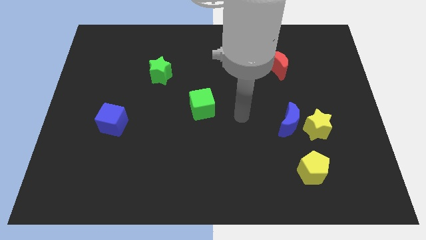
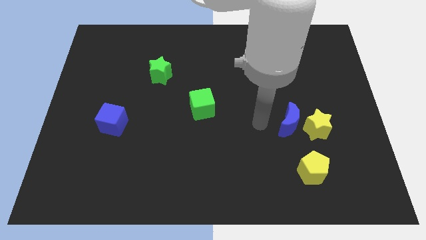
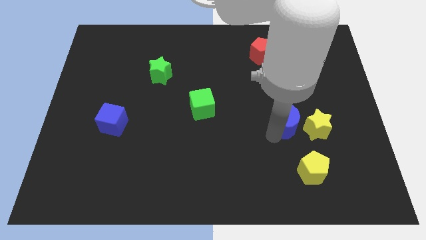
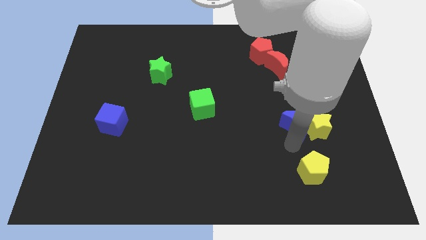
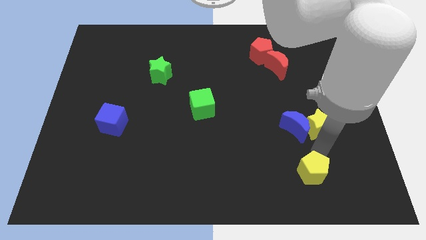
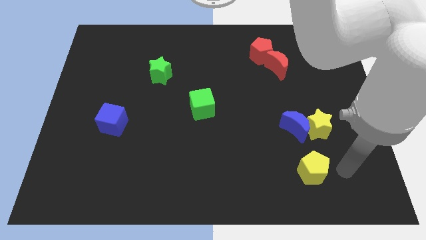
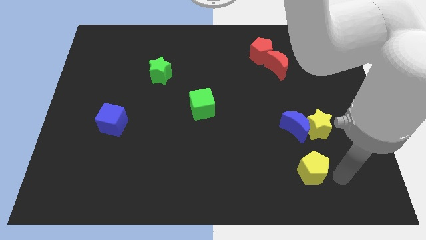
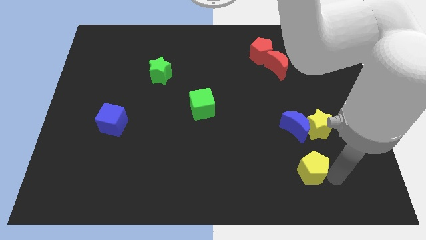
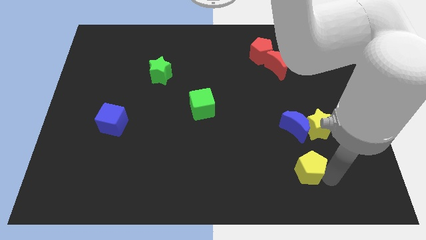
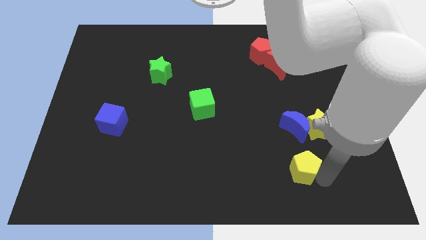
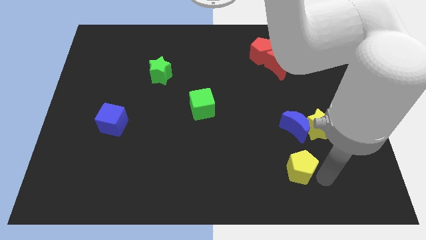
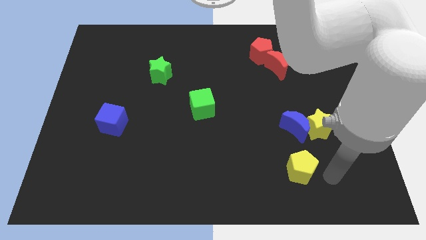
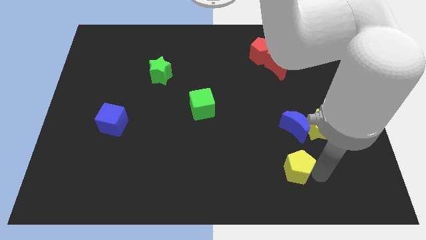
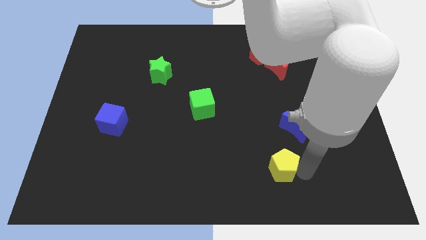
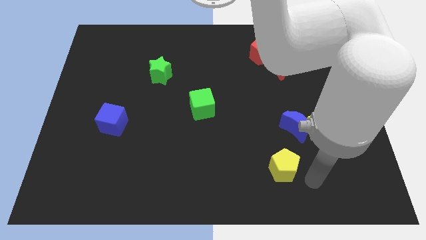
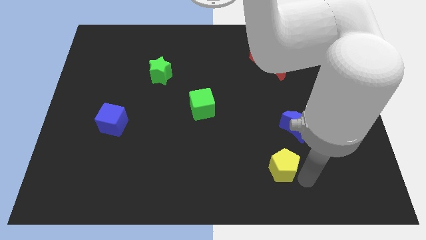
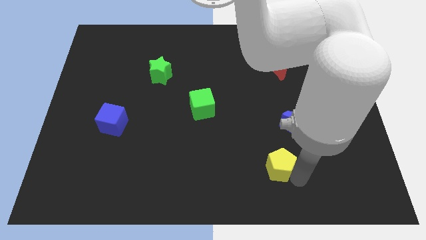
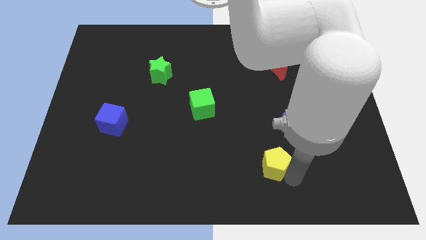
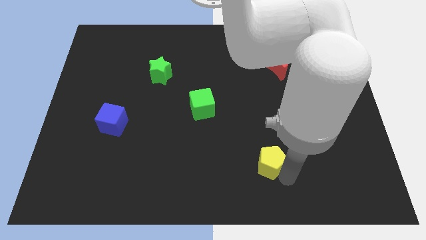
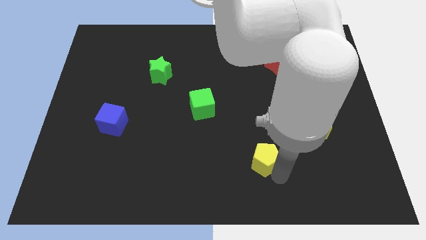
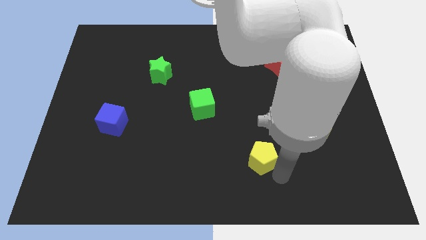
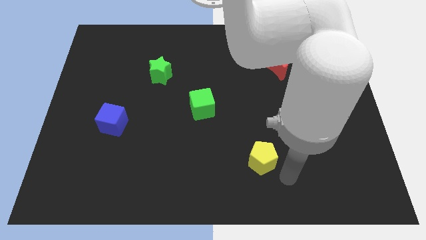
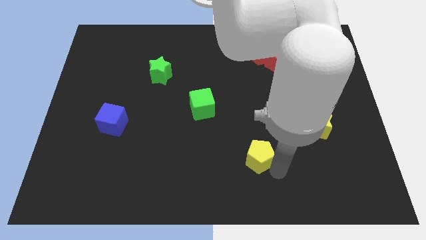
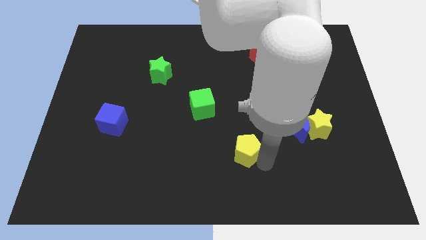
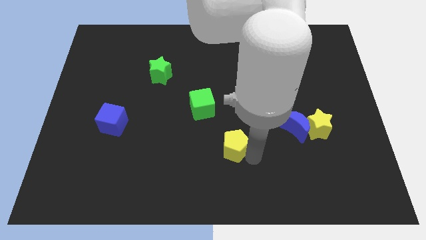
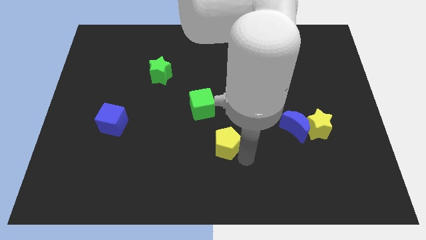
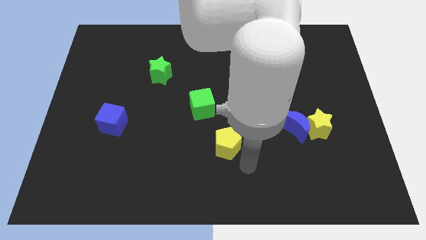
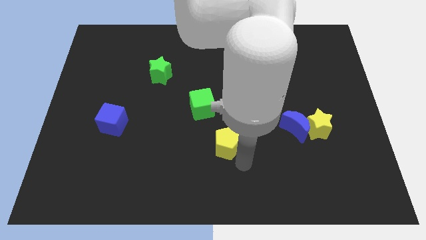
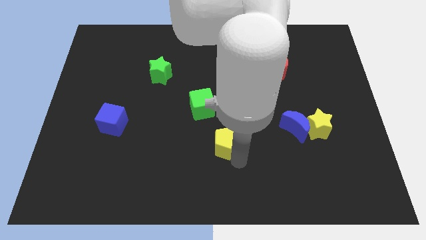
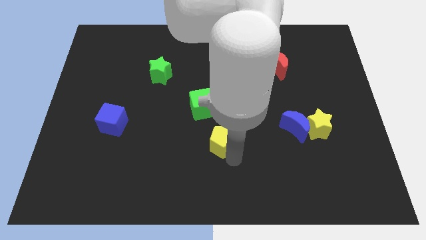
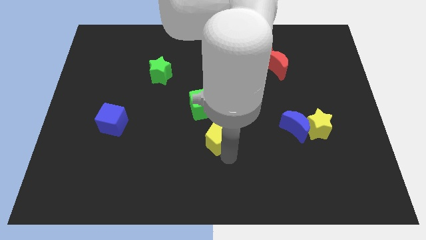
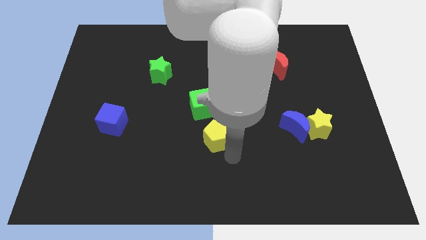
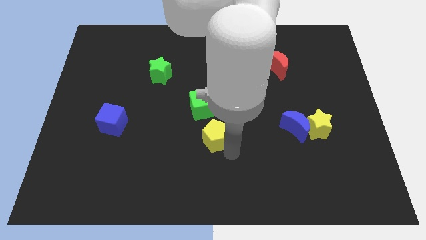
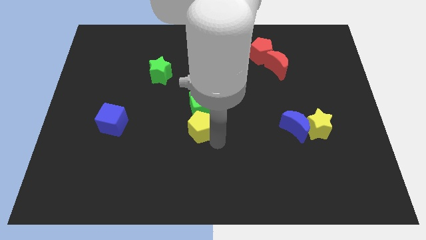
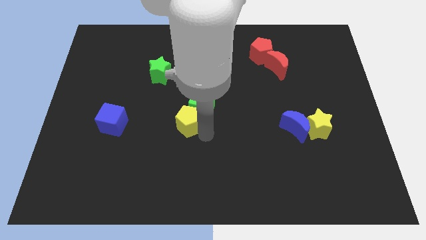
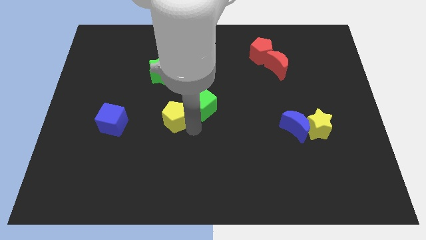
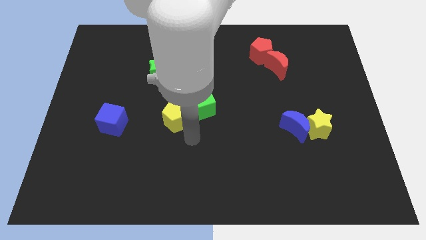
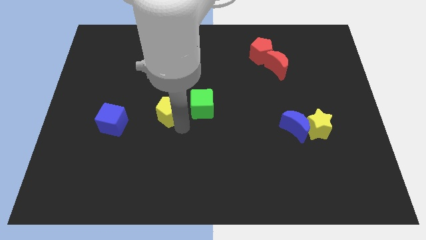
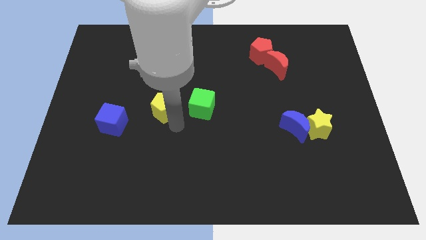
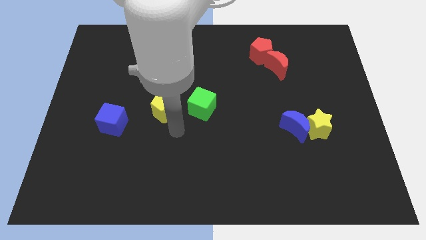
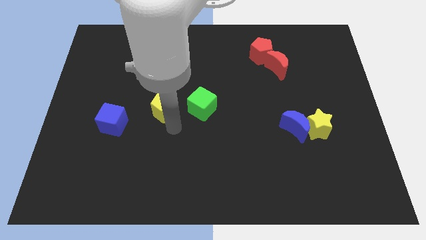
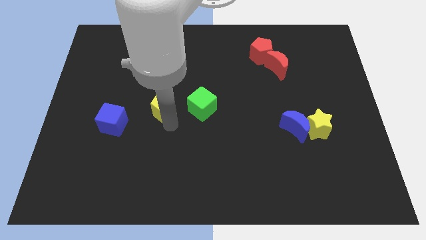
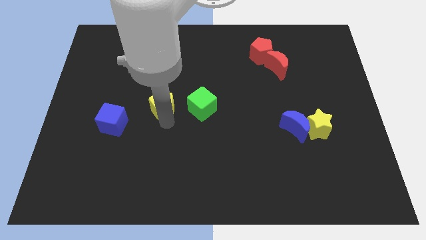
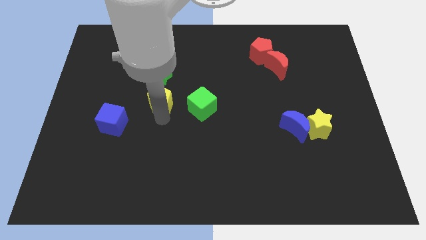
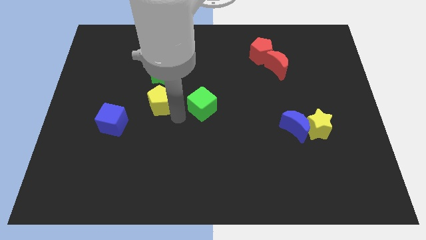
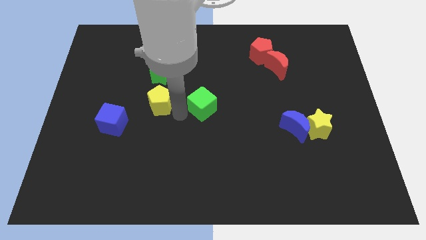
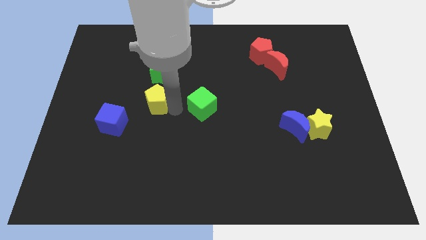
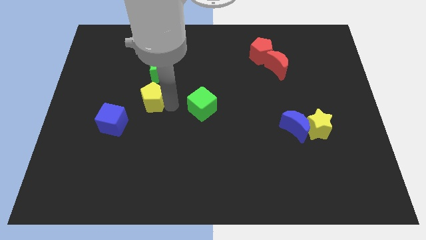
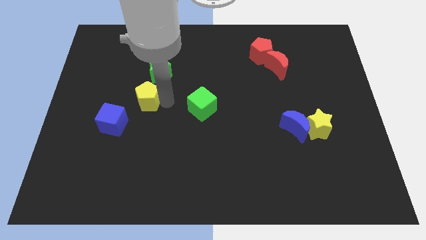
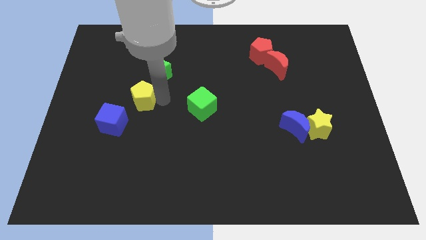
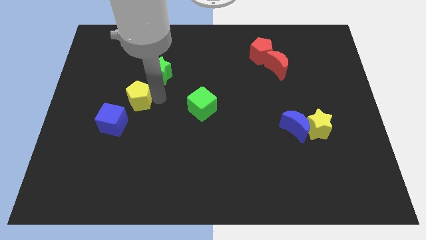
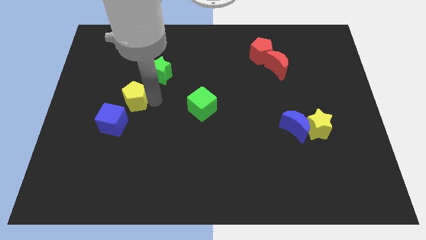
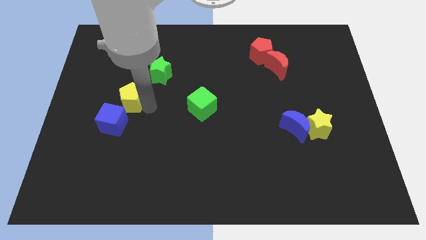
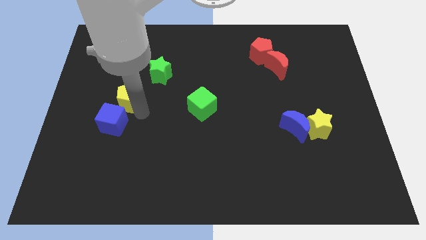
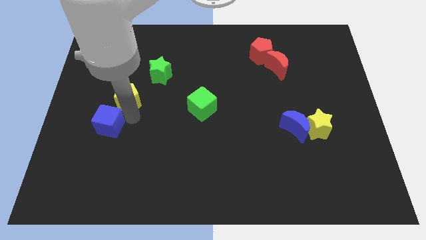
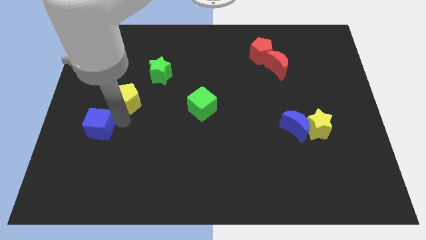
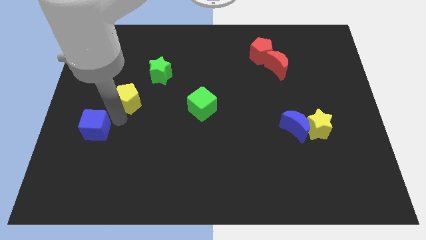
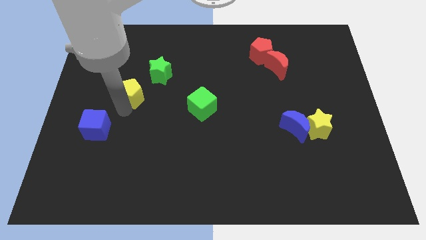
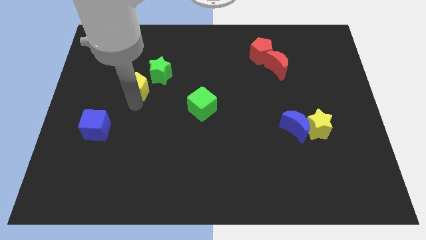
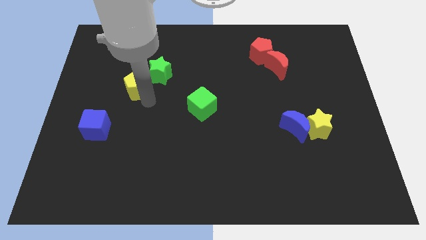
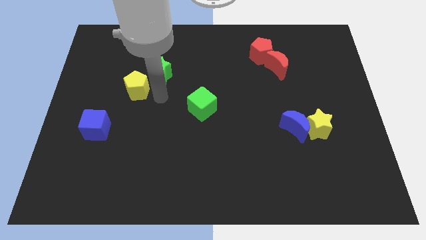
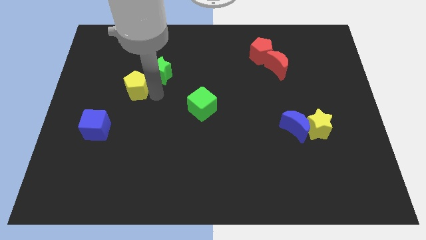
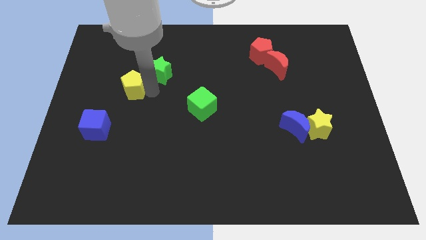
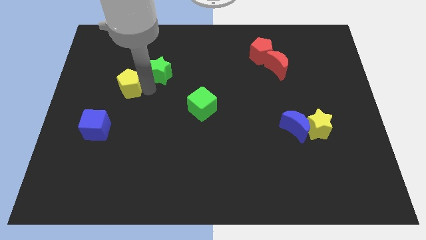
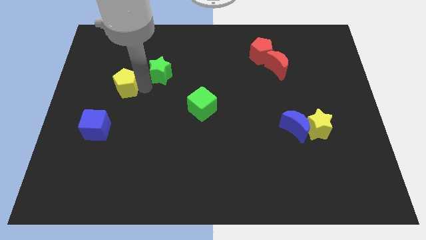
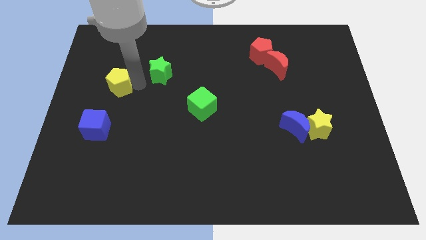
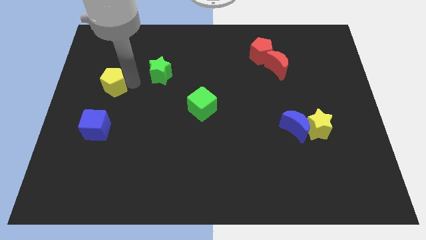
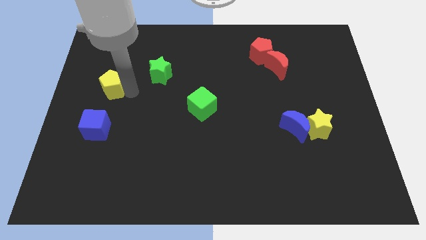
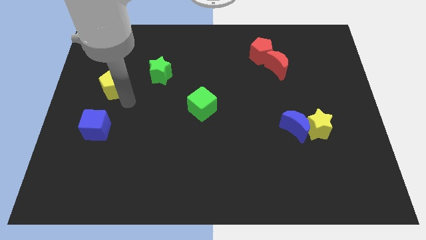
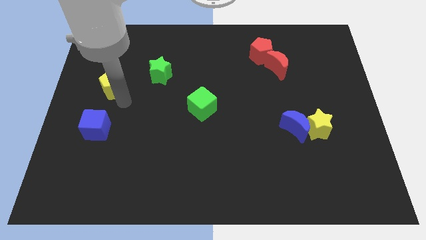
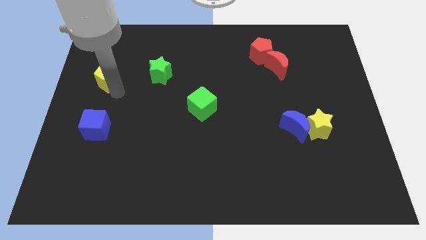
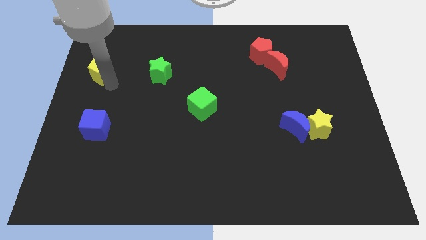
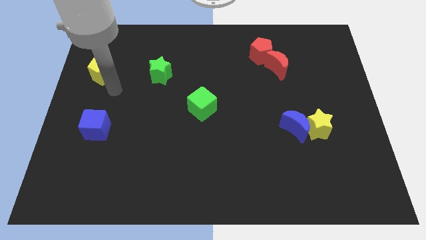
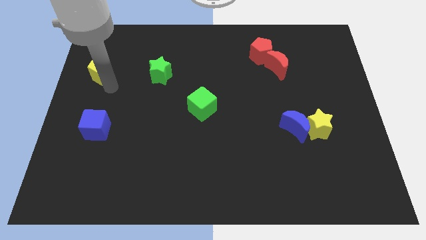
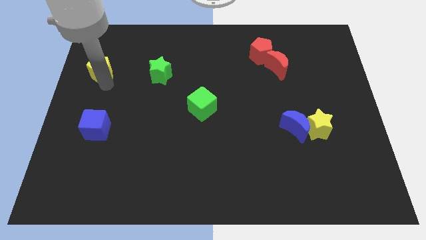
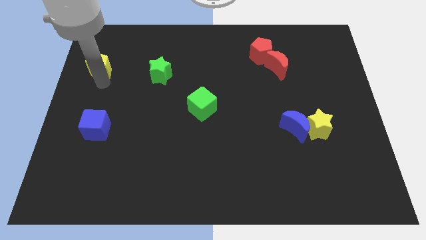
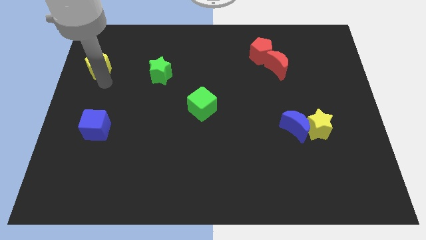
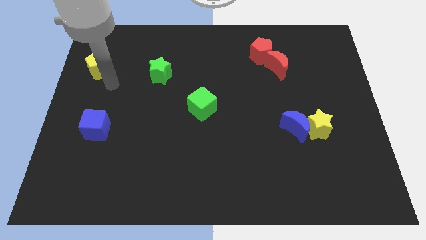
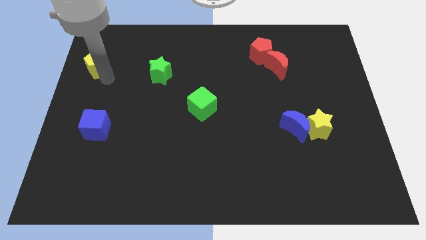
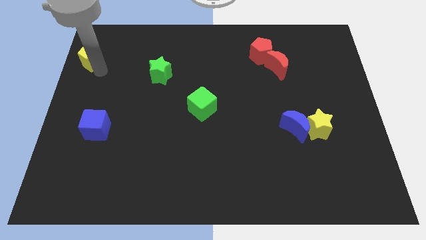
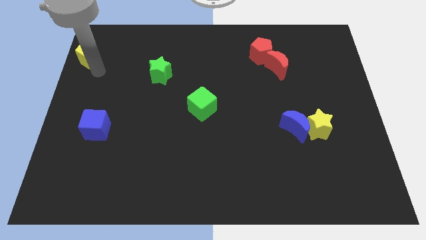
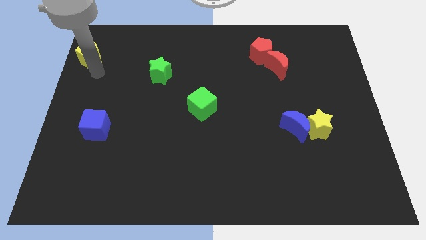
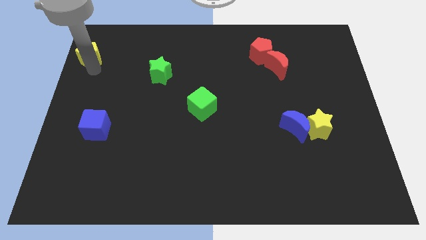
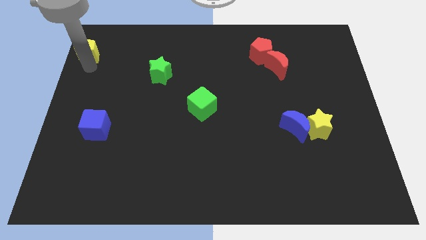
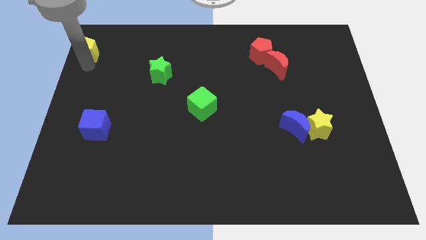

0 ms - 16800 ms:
put the yellow pentagon to the top left corner
